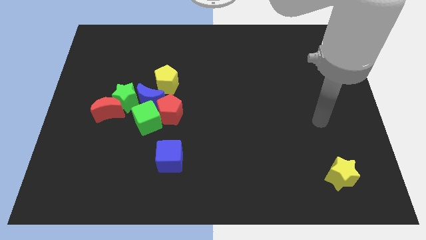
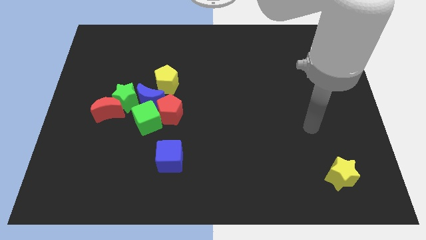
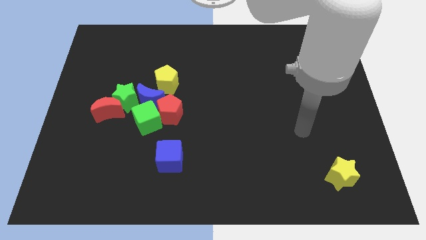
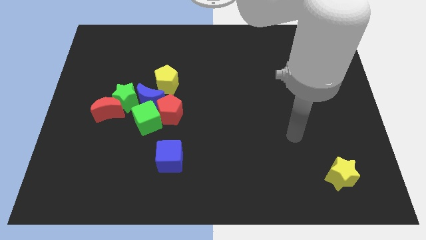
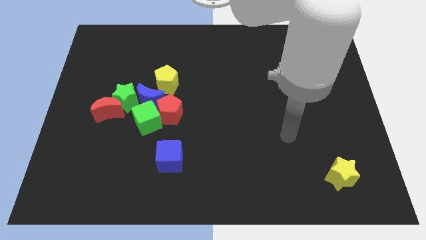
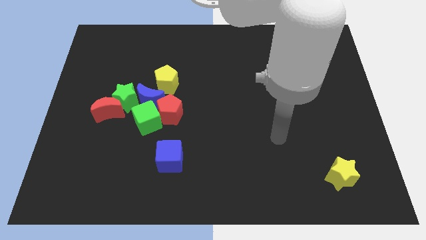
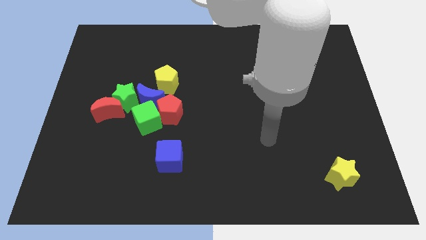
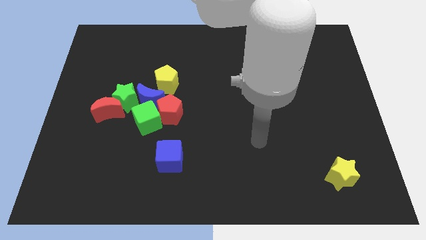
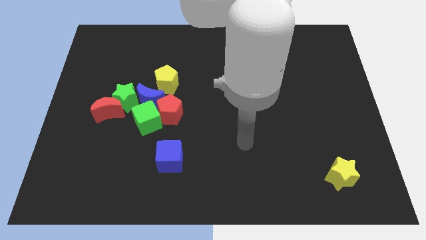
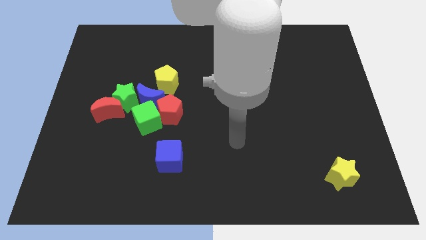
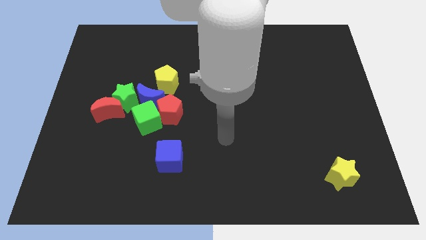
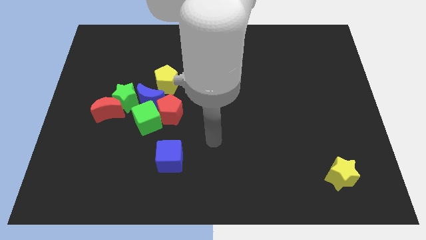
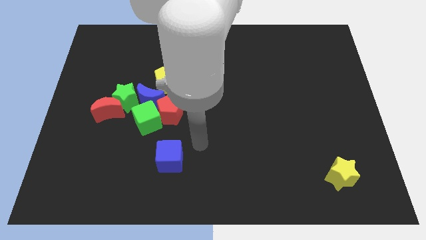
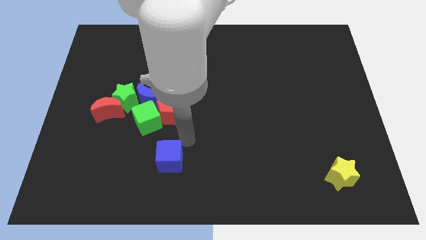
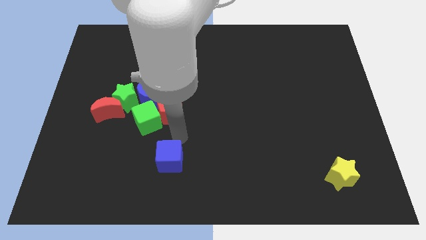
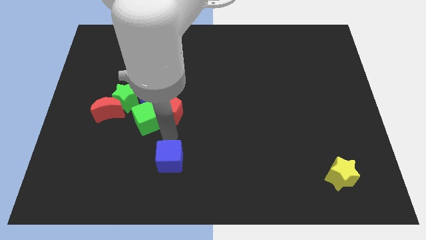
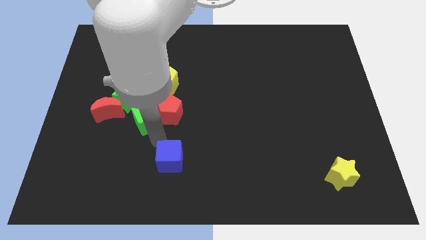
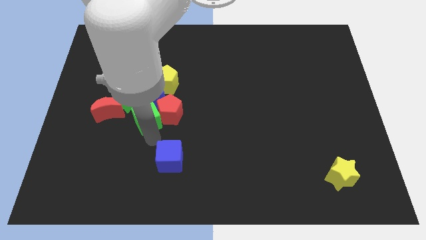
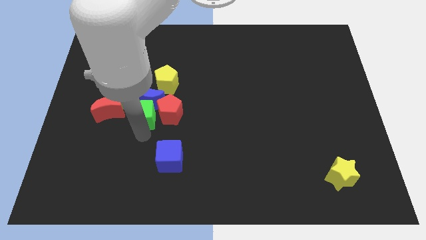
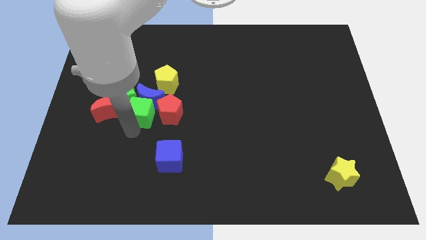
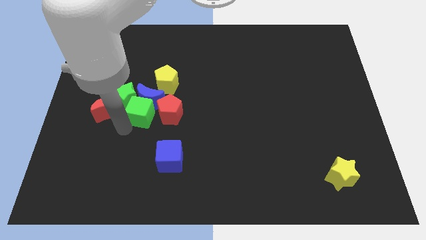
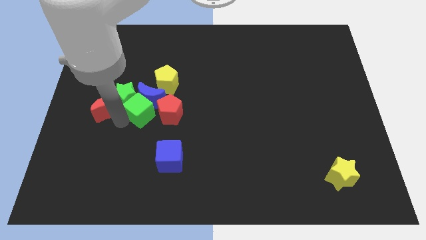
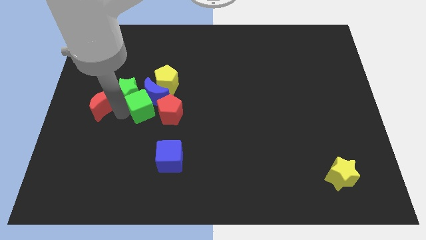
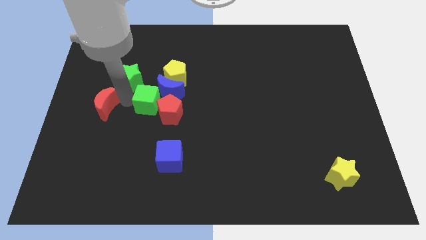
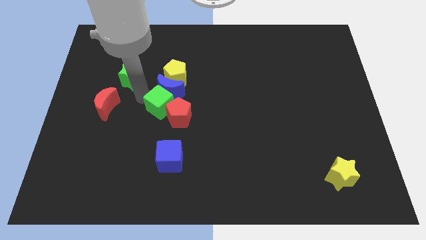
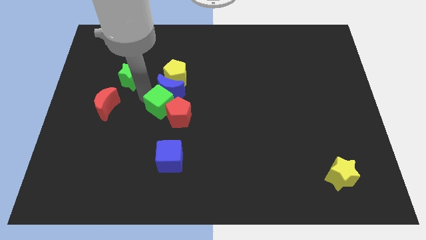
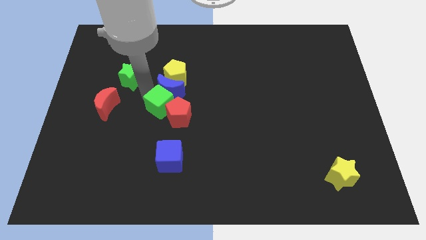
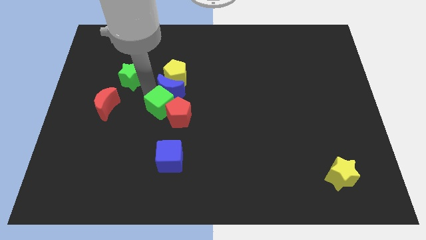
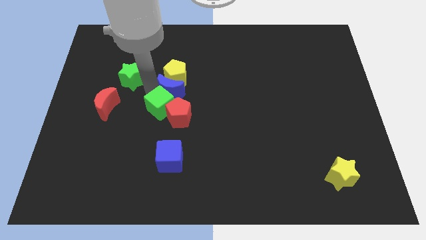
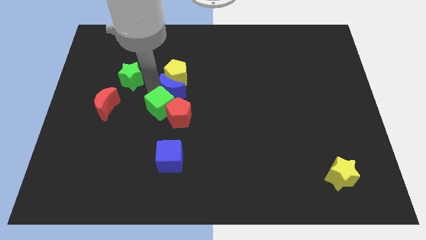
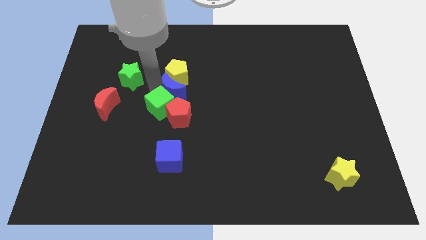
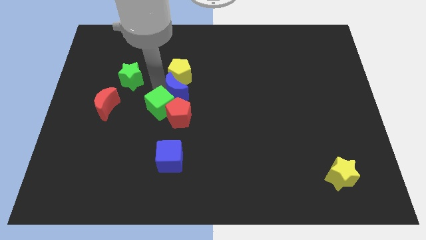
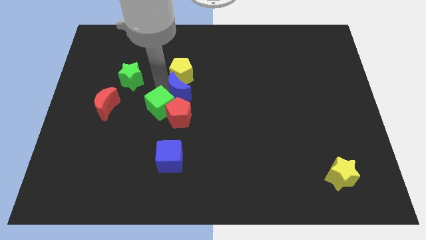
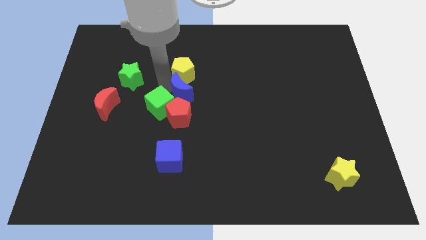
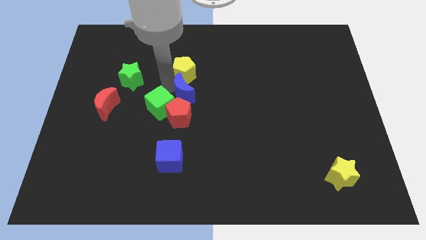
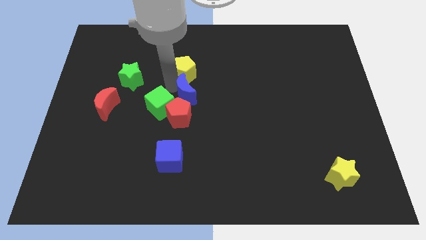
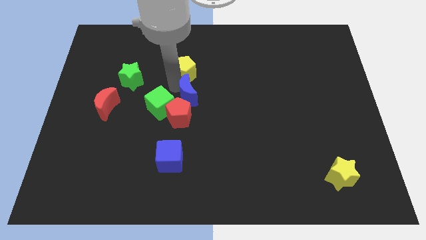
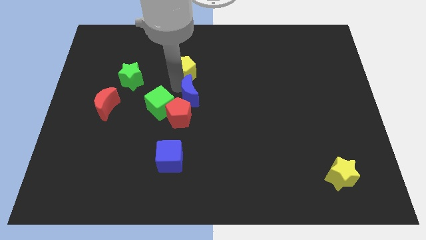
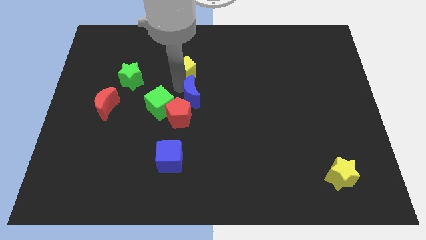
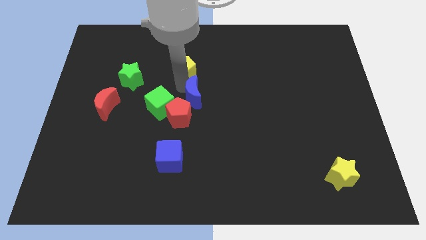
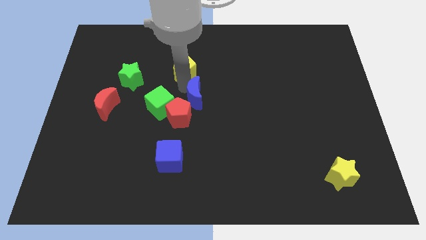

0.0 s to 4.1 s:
pull the blue moon apart from the clump

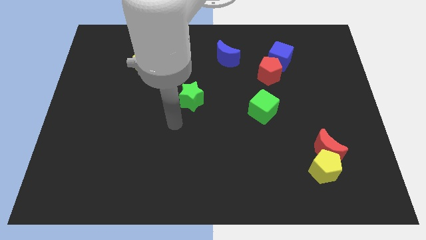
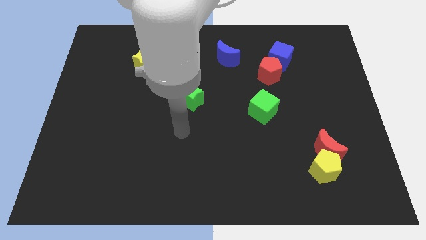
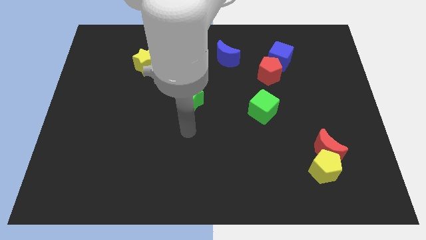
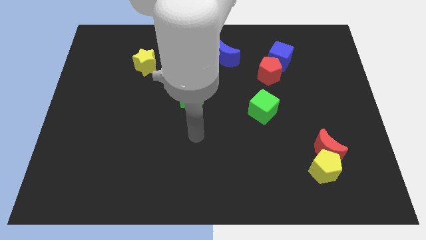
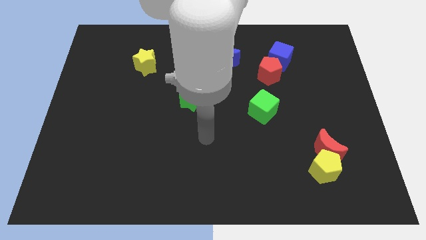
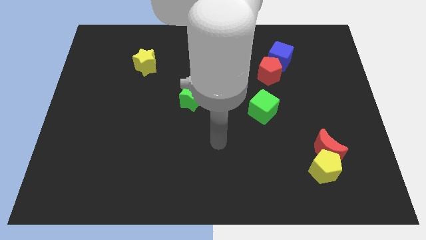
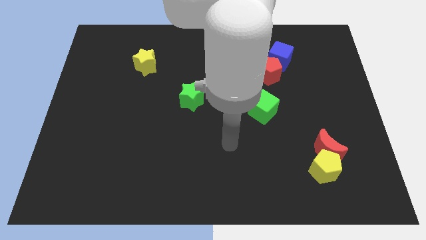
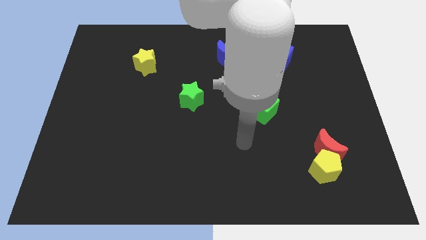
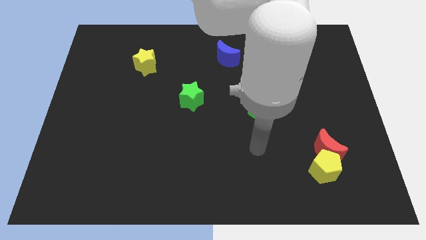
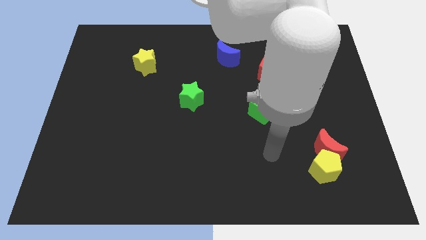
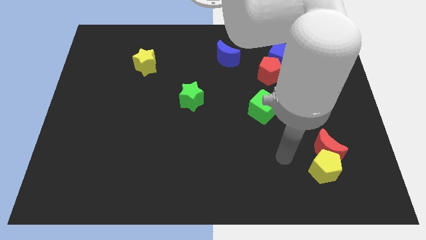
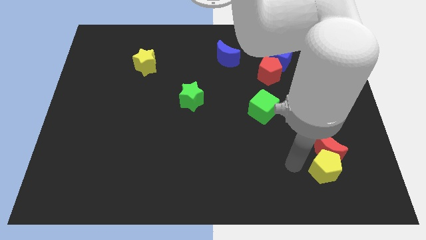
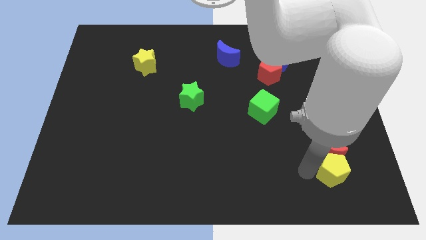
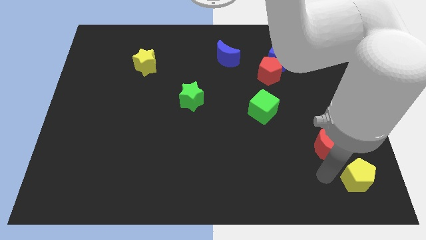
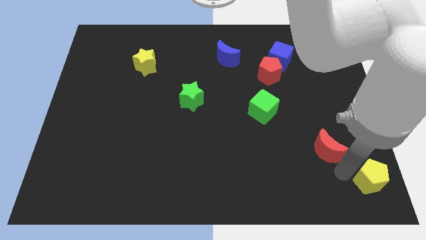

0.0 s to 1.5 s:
pull the red moon apart from the yellow pentagon

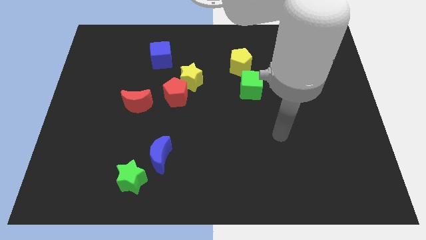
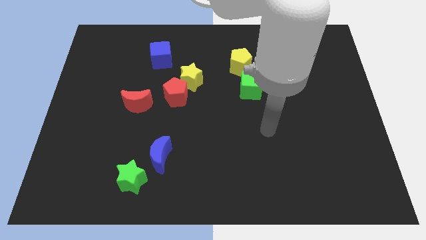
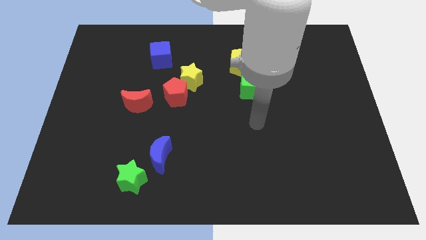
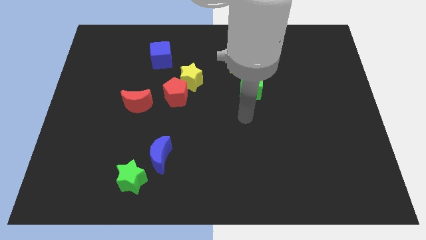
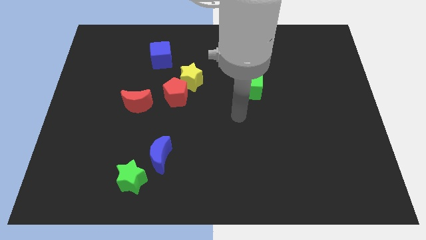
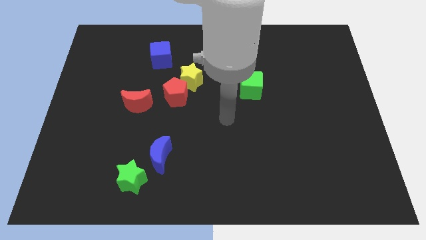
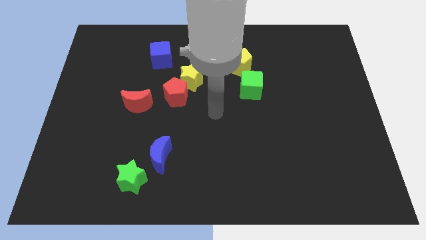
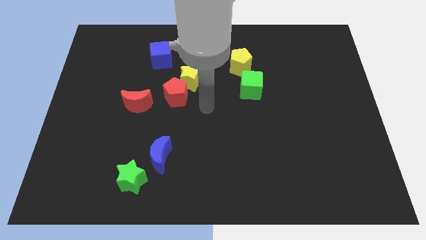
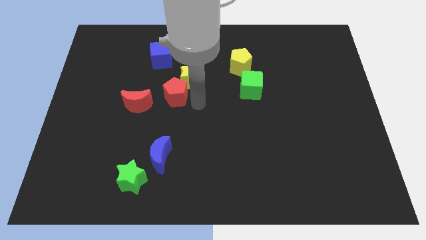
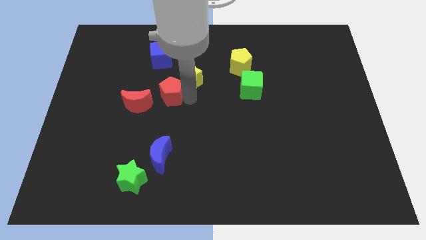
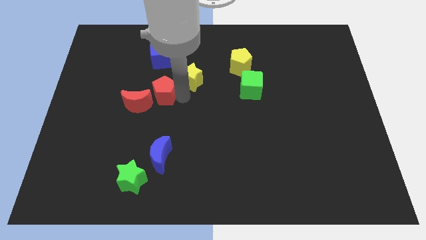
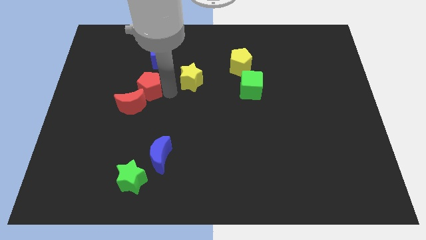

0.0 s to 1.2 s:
move the yellow star away from the red pentagon

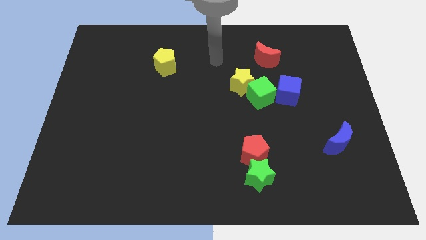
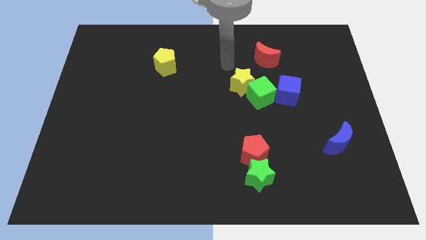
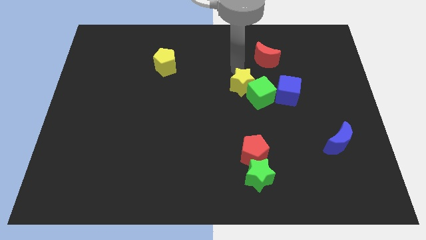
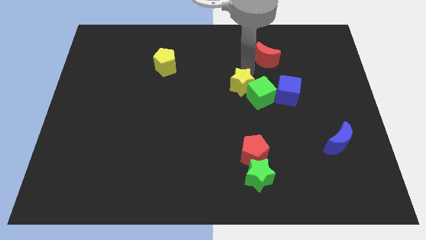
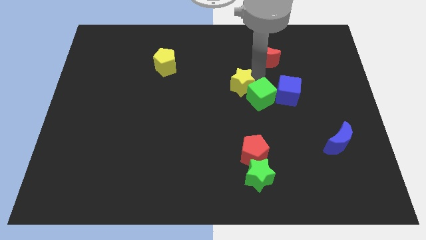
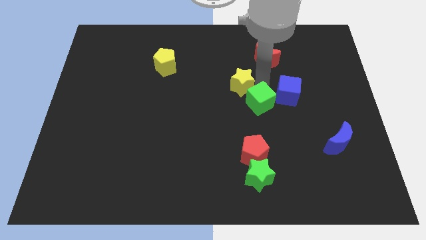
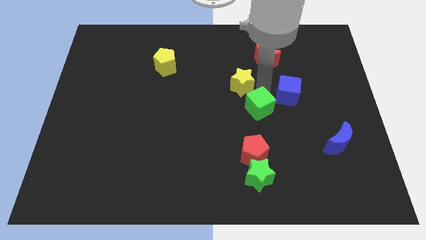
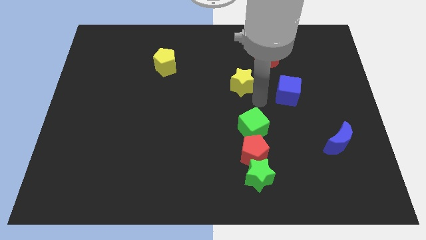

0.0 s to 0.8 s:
separate the yellow star from the green cube

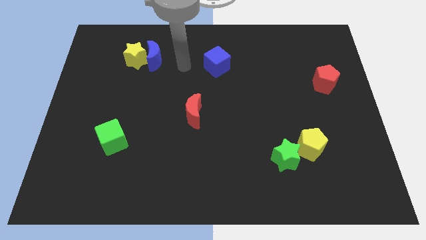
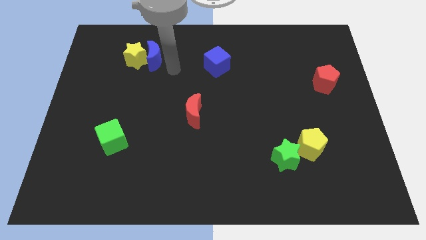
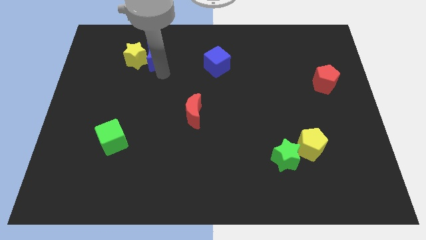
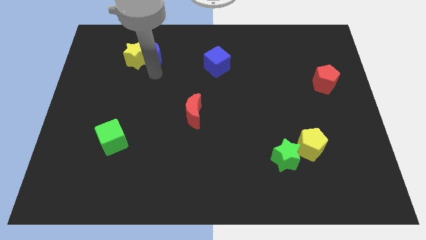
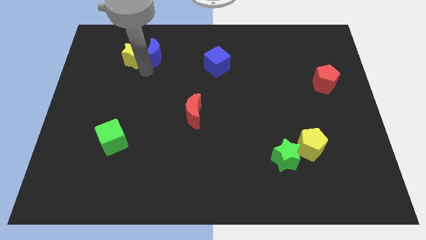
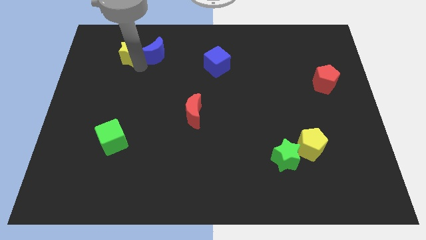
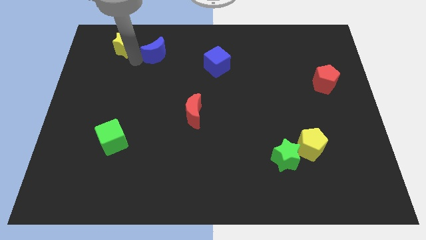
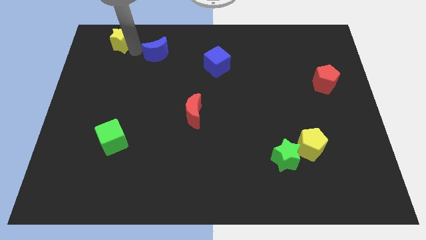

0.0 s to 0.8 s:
pull the blue moon apart from the yellow star

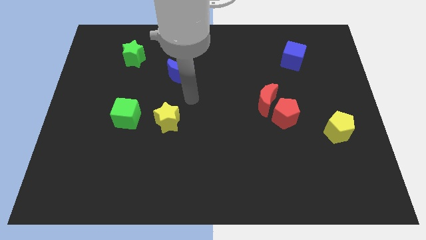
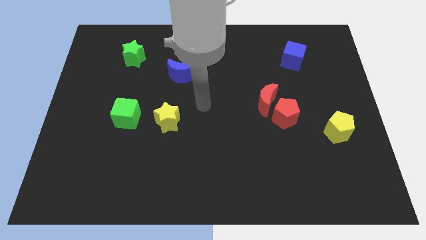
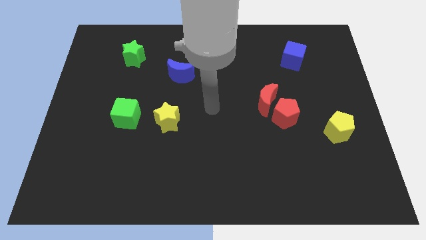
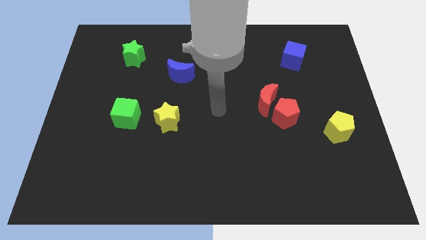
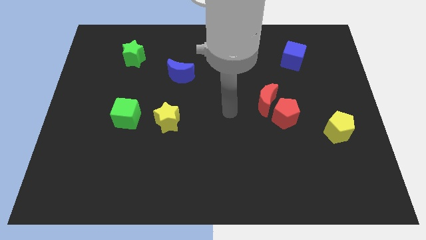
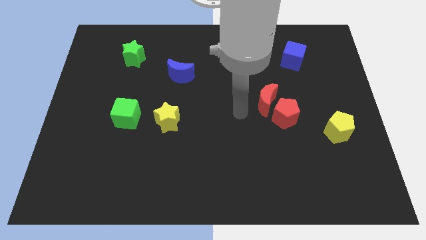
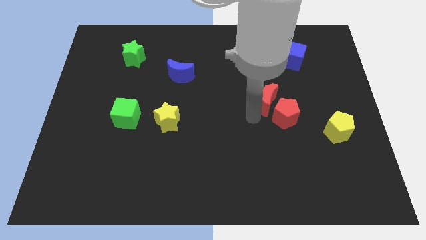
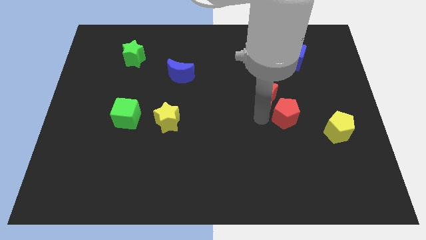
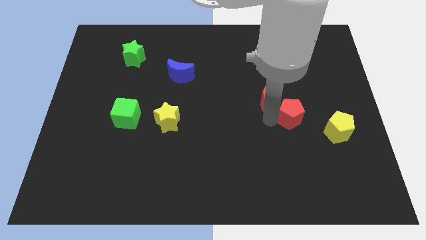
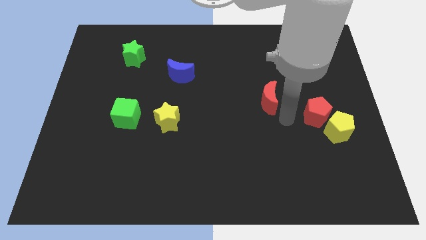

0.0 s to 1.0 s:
move the red moon away from the red pentagon
